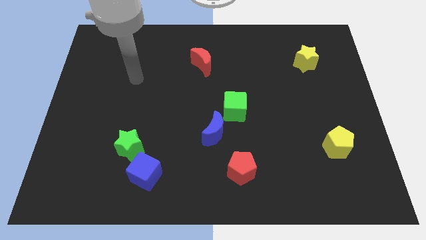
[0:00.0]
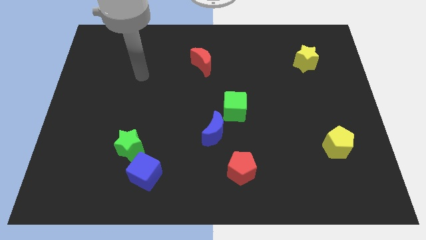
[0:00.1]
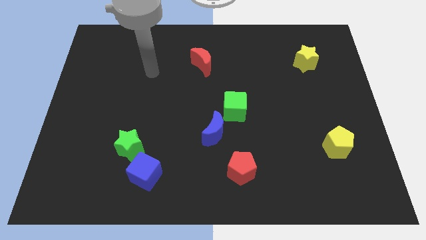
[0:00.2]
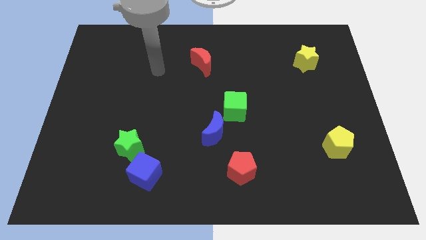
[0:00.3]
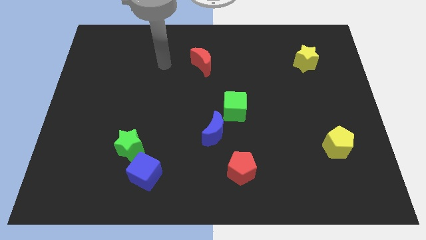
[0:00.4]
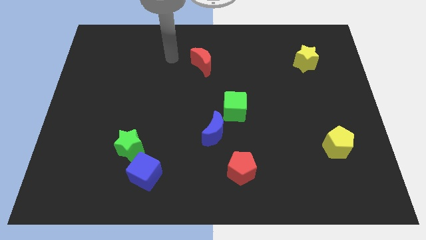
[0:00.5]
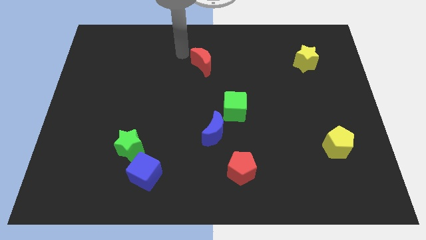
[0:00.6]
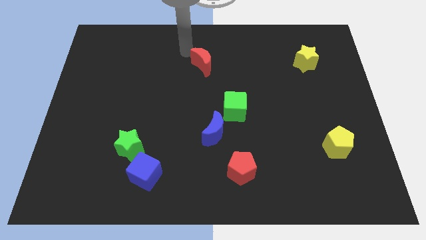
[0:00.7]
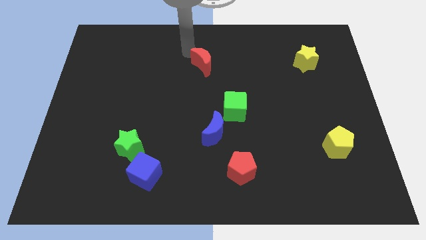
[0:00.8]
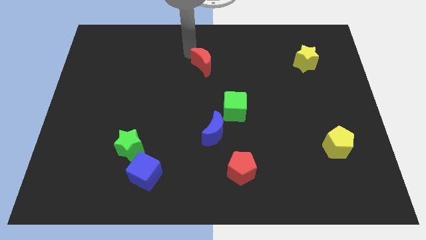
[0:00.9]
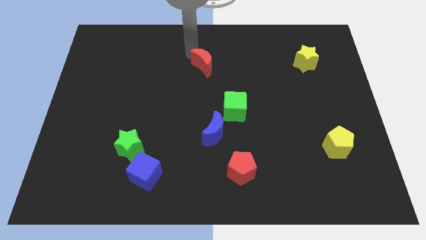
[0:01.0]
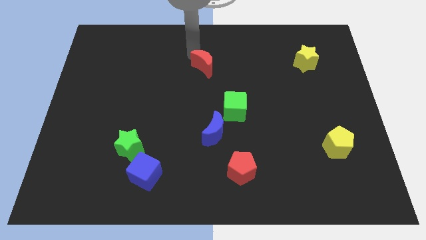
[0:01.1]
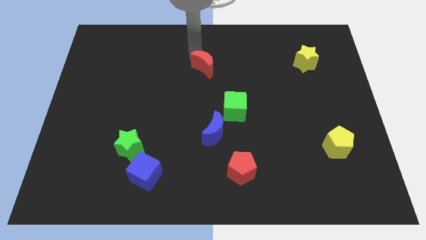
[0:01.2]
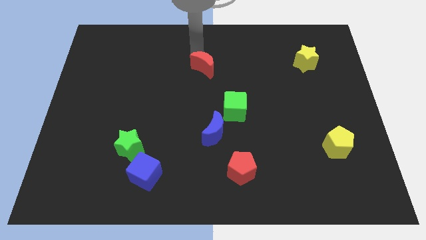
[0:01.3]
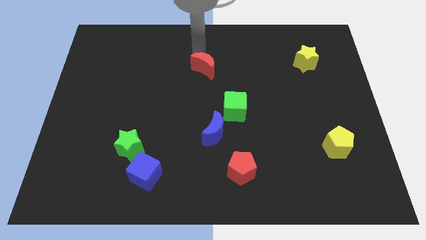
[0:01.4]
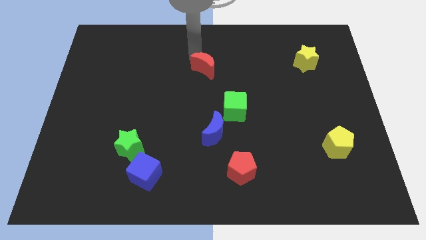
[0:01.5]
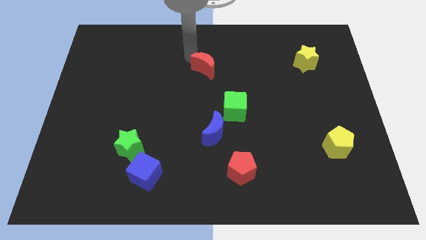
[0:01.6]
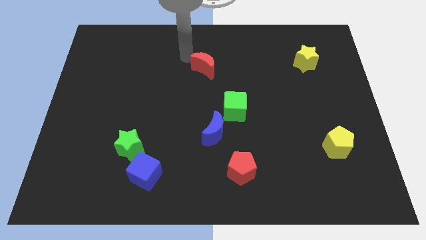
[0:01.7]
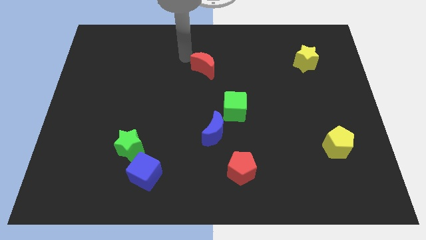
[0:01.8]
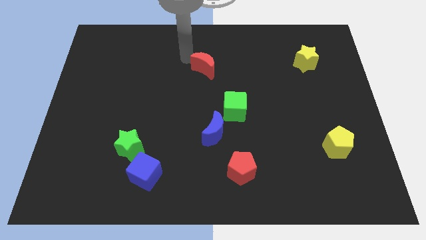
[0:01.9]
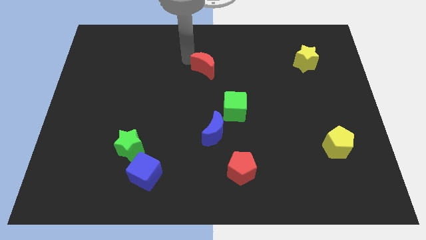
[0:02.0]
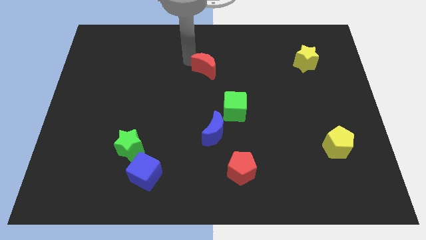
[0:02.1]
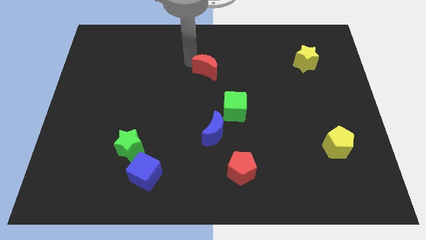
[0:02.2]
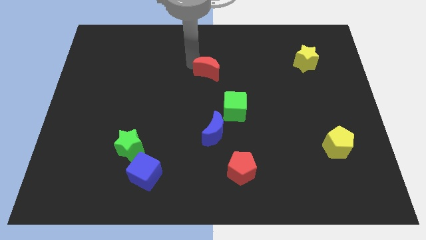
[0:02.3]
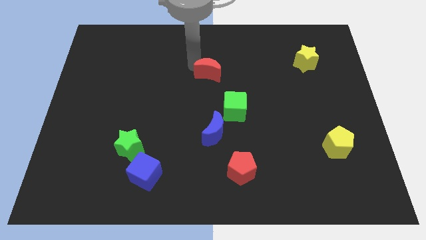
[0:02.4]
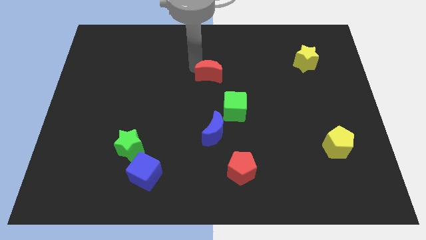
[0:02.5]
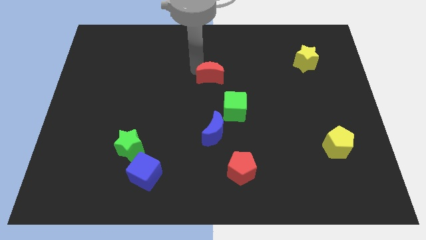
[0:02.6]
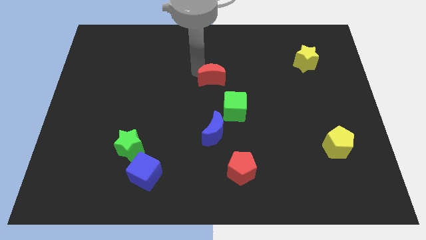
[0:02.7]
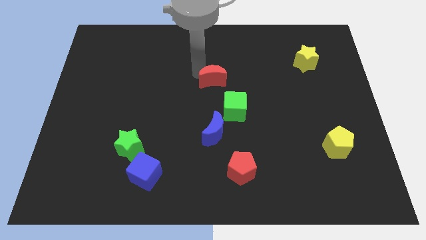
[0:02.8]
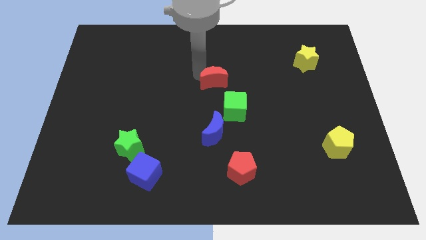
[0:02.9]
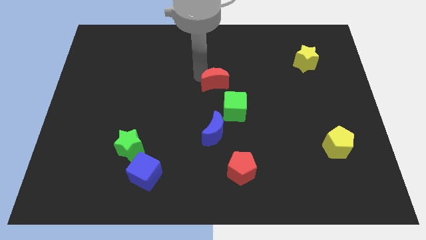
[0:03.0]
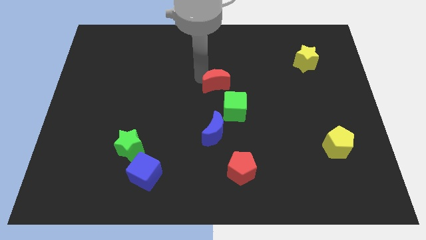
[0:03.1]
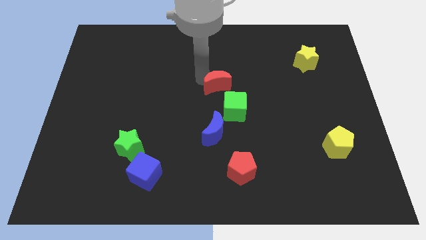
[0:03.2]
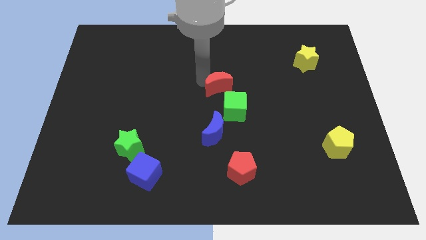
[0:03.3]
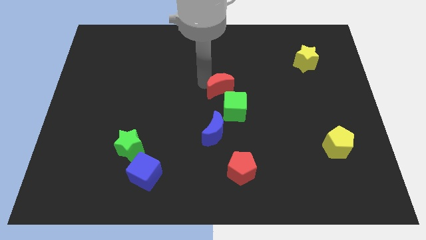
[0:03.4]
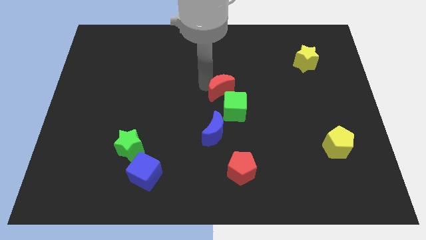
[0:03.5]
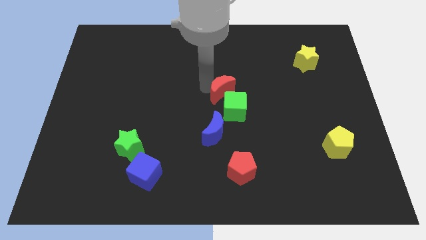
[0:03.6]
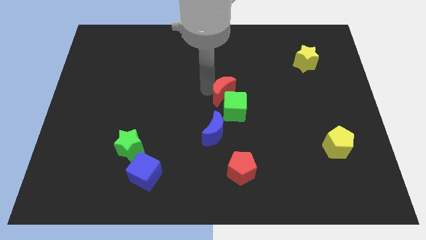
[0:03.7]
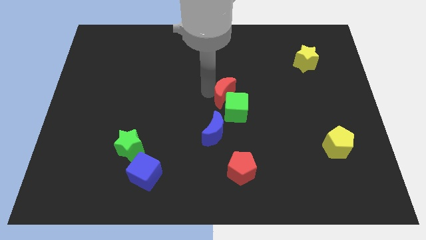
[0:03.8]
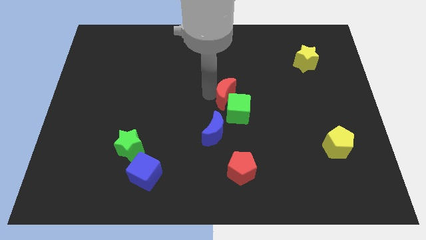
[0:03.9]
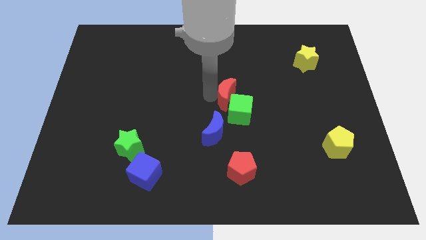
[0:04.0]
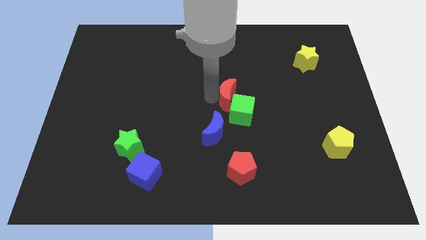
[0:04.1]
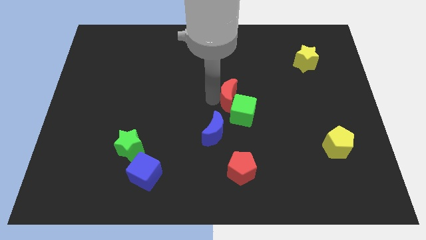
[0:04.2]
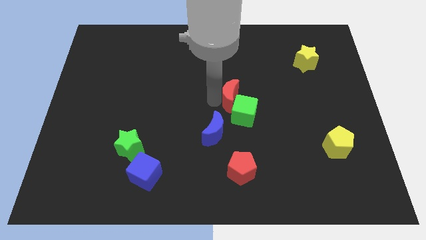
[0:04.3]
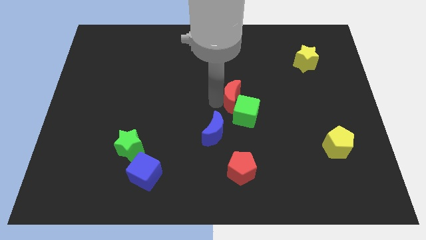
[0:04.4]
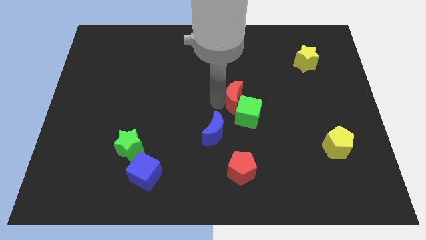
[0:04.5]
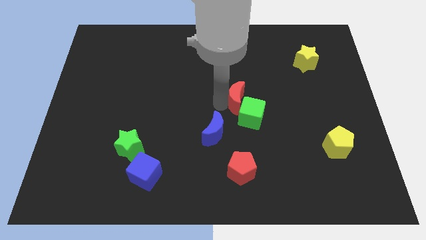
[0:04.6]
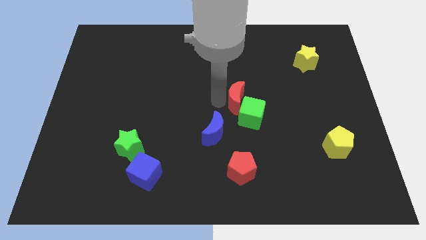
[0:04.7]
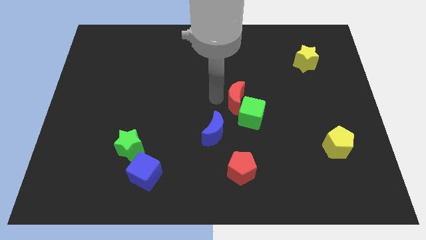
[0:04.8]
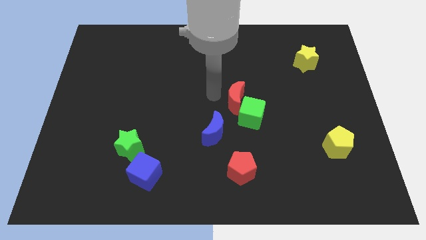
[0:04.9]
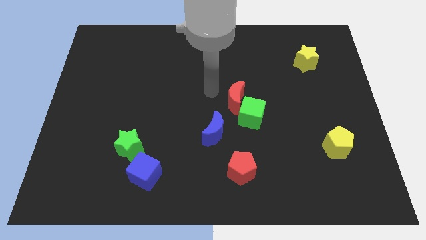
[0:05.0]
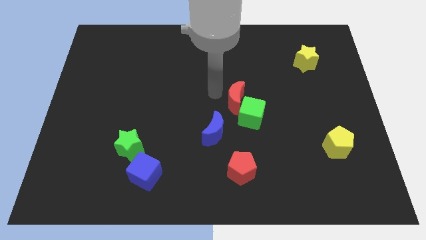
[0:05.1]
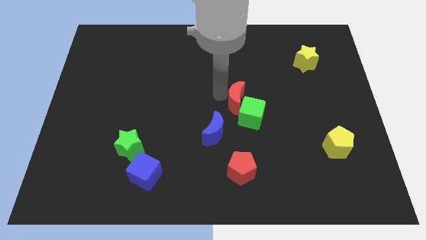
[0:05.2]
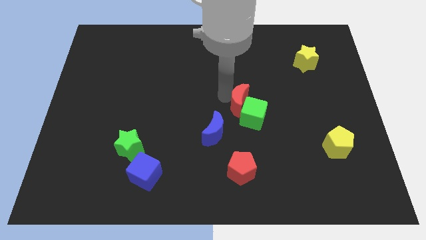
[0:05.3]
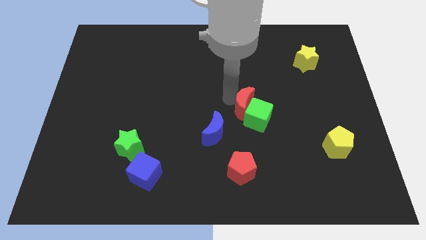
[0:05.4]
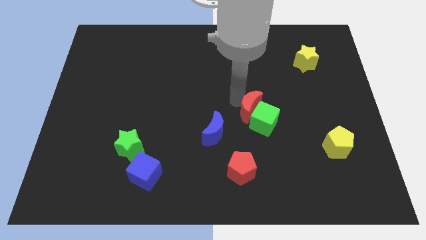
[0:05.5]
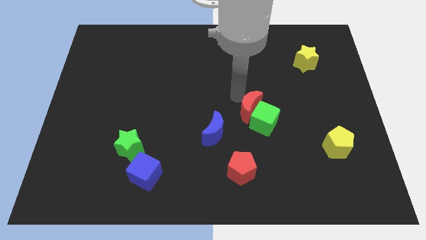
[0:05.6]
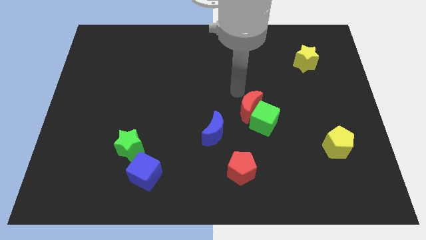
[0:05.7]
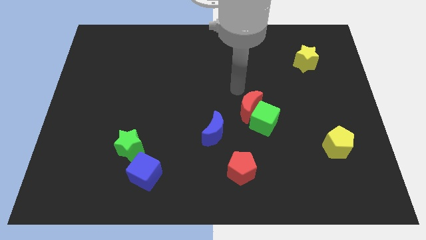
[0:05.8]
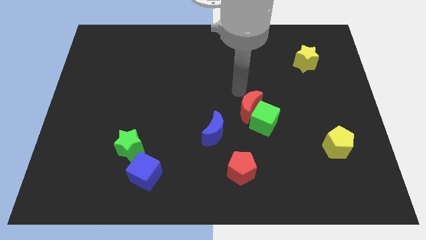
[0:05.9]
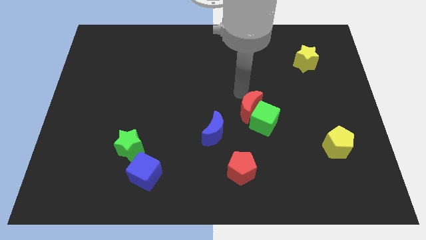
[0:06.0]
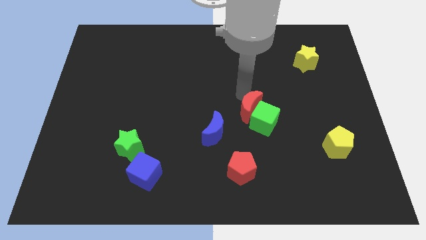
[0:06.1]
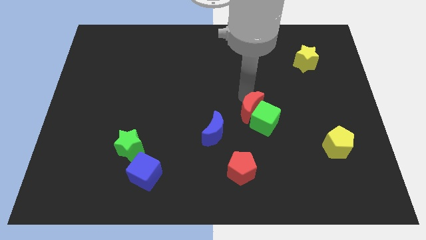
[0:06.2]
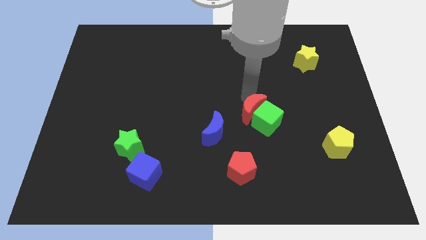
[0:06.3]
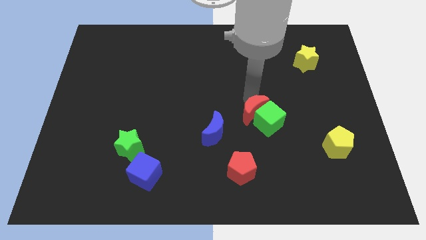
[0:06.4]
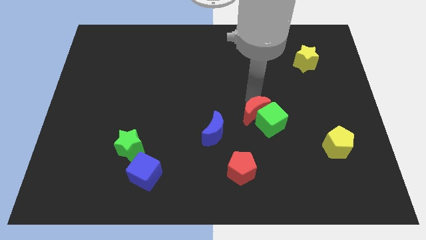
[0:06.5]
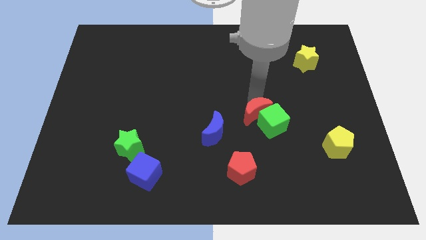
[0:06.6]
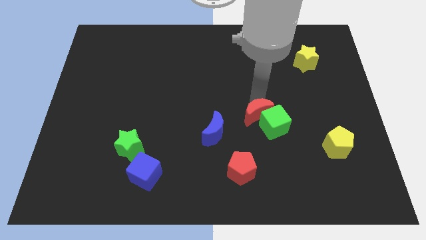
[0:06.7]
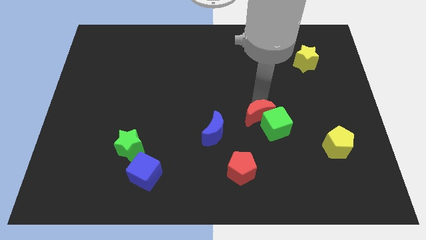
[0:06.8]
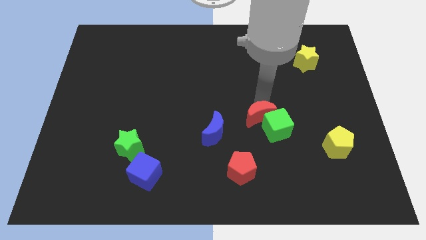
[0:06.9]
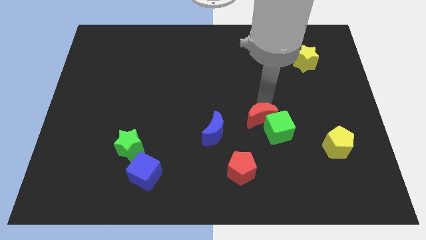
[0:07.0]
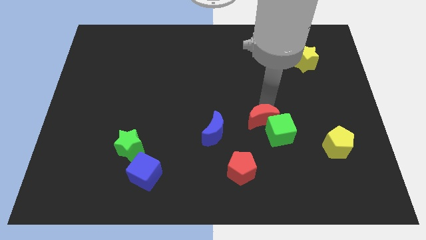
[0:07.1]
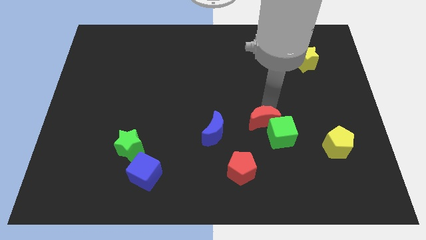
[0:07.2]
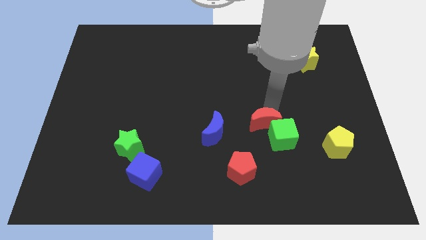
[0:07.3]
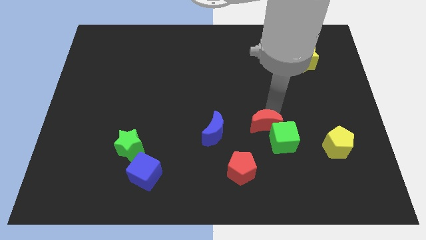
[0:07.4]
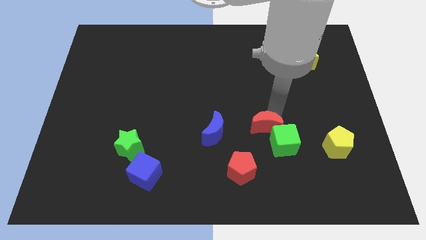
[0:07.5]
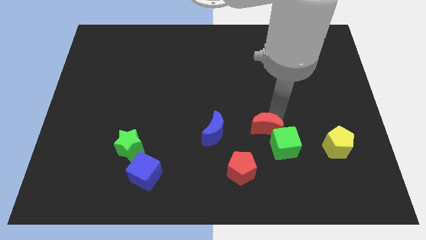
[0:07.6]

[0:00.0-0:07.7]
slide the red moon to the top right of the red pentagon
